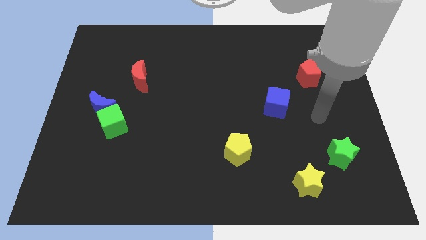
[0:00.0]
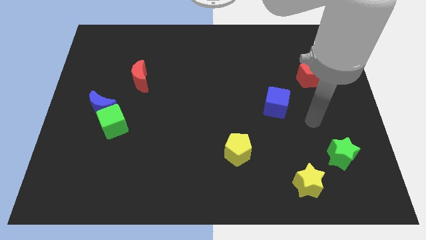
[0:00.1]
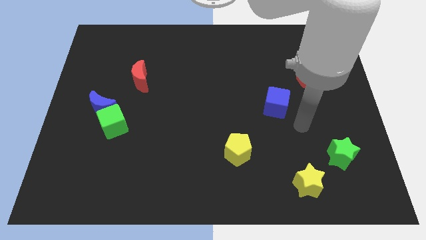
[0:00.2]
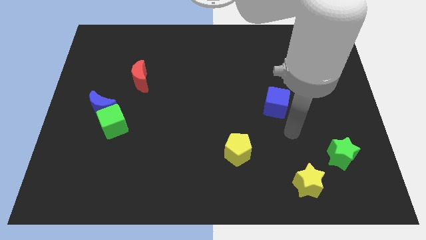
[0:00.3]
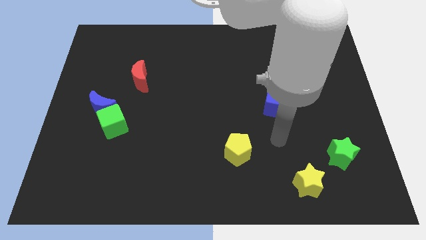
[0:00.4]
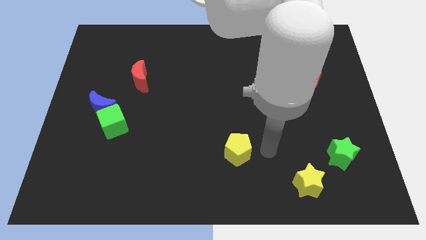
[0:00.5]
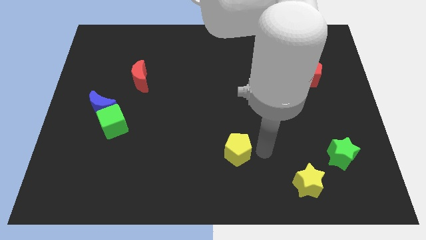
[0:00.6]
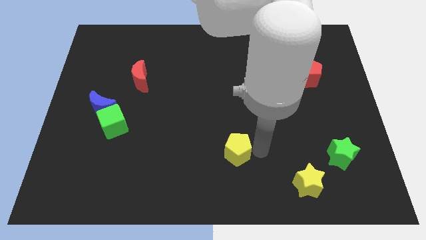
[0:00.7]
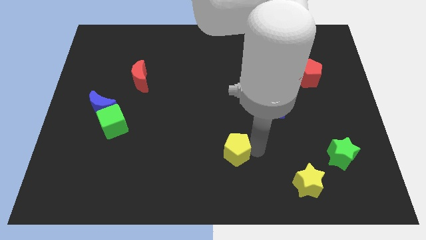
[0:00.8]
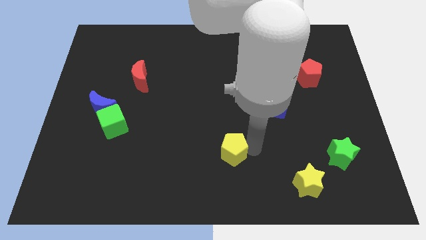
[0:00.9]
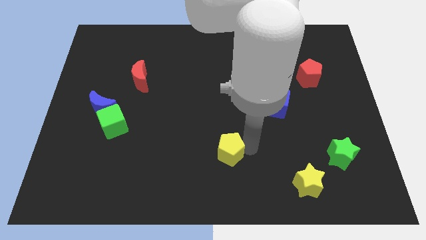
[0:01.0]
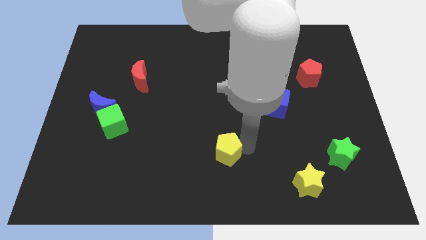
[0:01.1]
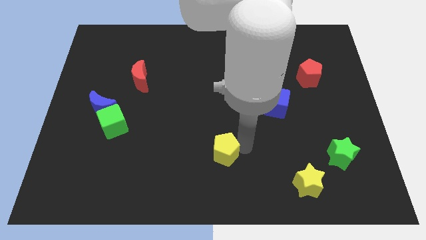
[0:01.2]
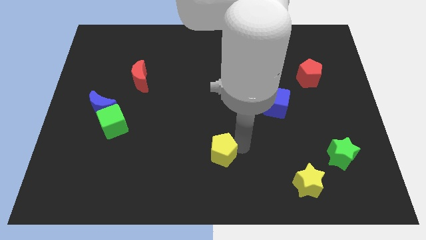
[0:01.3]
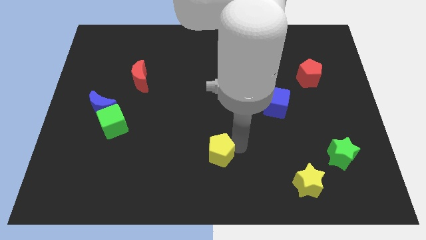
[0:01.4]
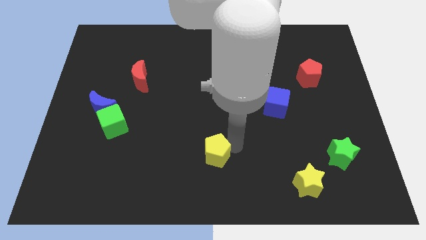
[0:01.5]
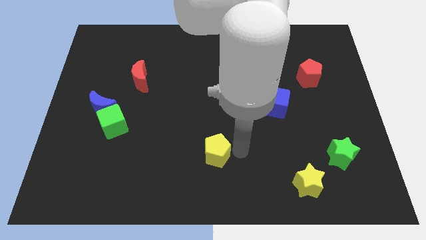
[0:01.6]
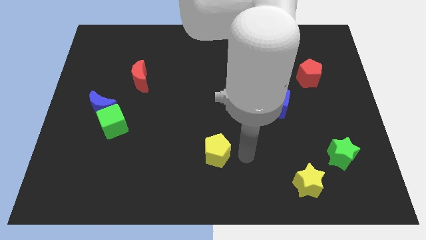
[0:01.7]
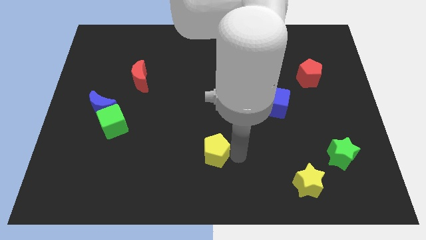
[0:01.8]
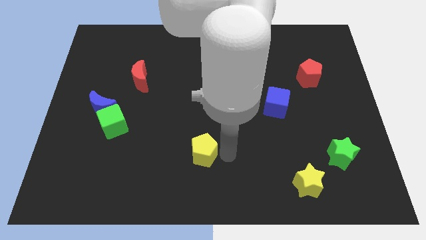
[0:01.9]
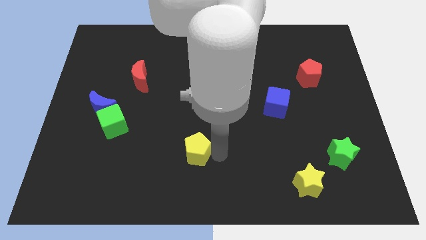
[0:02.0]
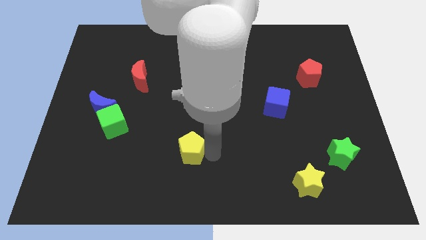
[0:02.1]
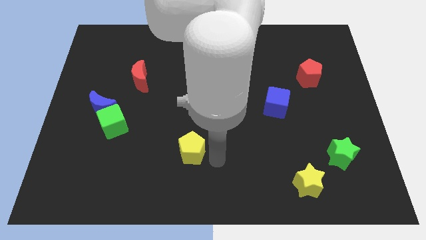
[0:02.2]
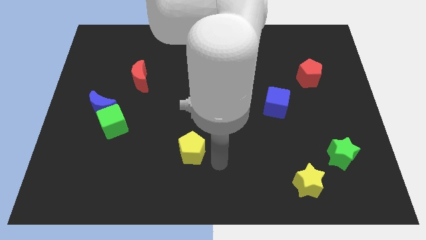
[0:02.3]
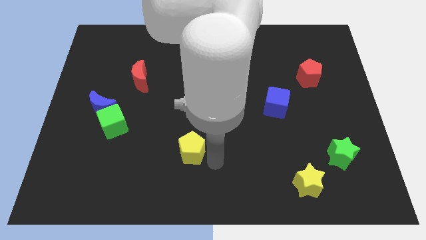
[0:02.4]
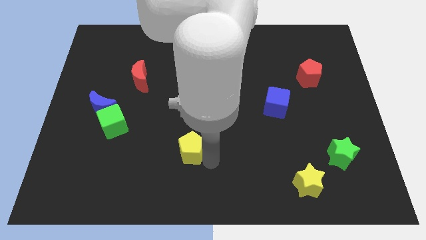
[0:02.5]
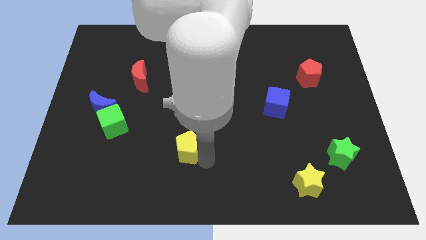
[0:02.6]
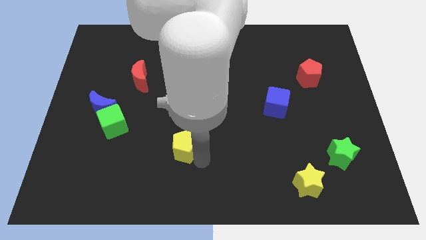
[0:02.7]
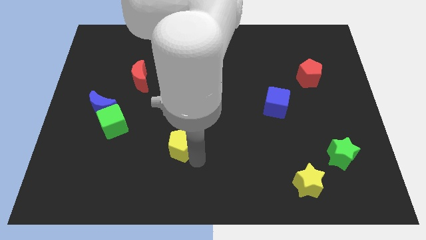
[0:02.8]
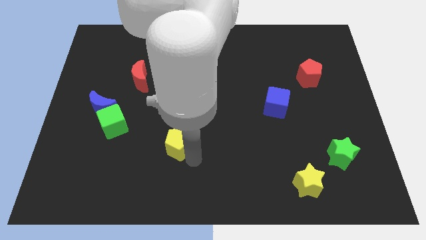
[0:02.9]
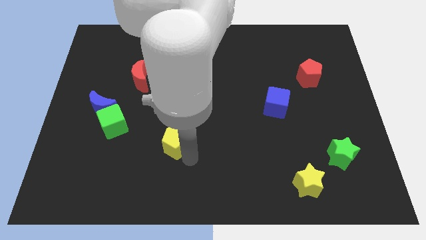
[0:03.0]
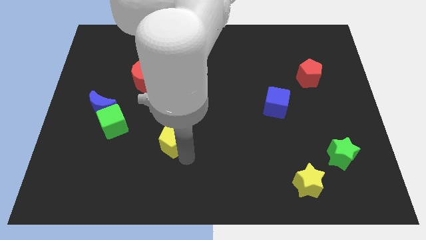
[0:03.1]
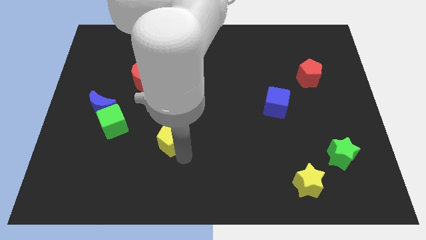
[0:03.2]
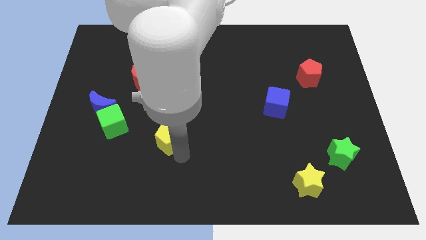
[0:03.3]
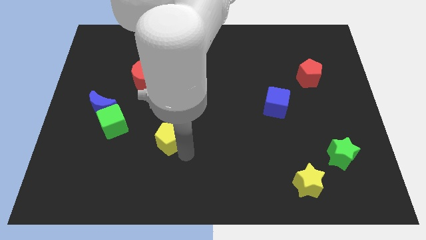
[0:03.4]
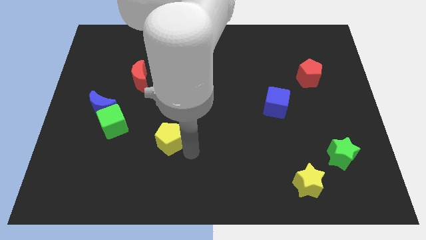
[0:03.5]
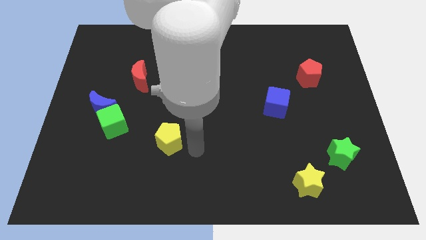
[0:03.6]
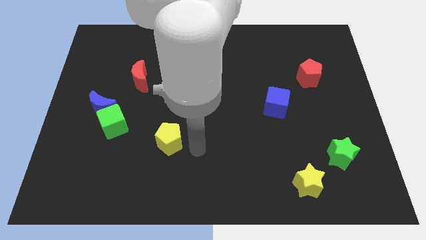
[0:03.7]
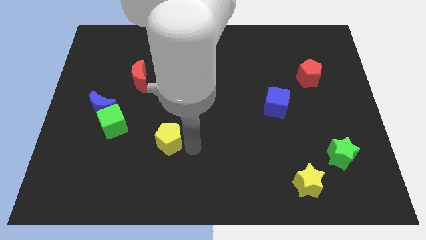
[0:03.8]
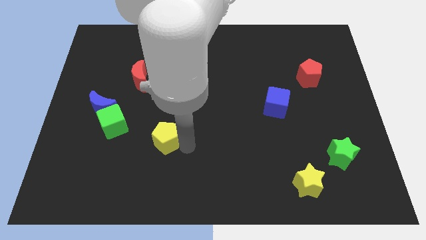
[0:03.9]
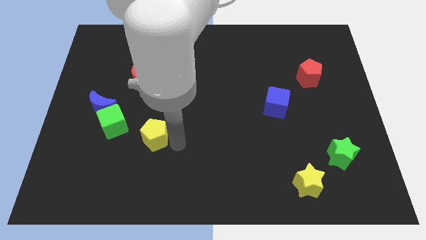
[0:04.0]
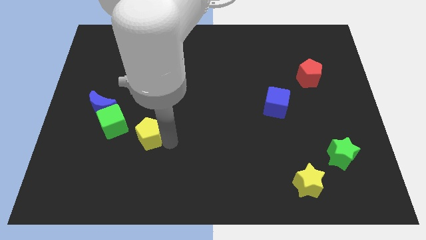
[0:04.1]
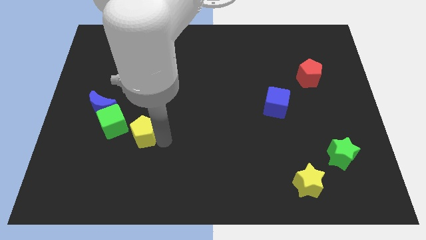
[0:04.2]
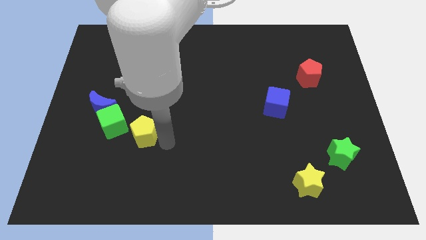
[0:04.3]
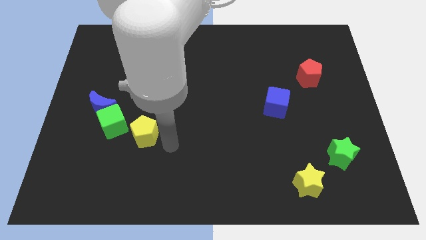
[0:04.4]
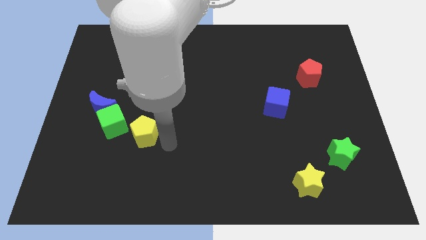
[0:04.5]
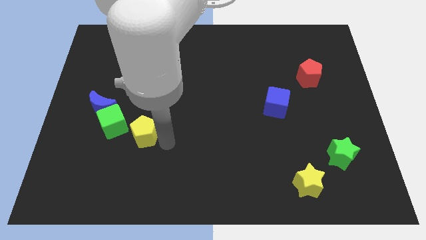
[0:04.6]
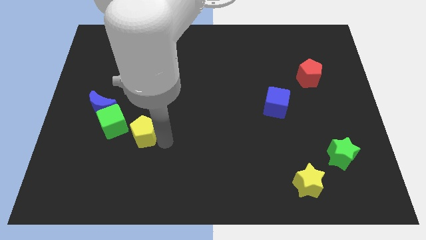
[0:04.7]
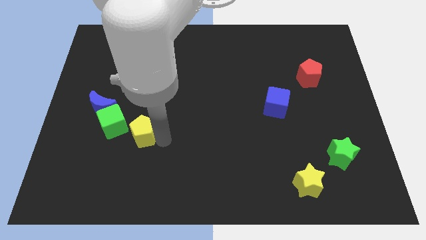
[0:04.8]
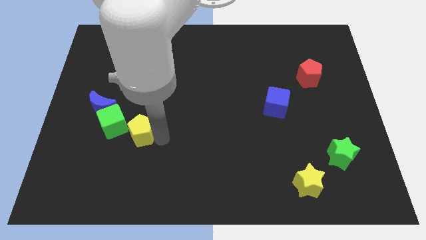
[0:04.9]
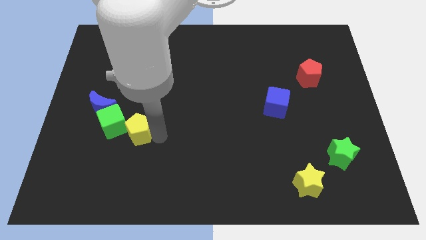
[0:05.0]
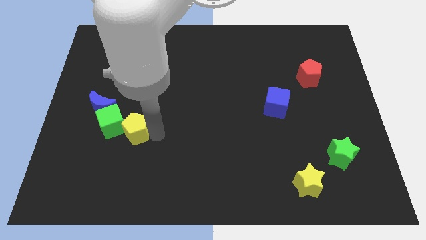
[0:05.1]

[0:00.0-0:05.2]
slide the yellow pentagon next to the green cube

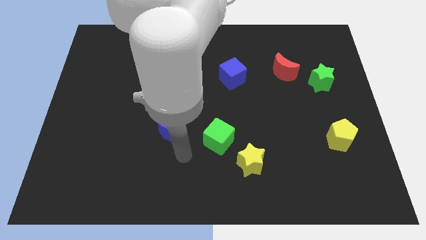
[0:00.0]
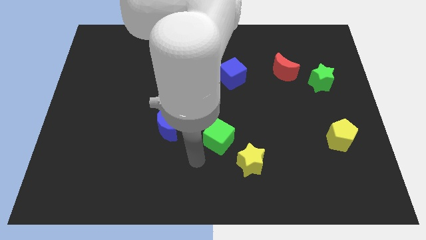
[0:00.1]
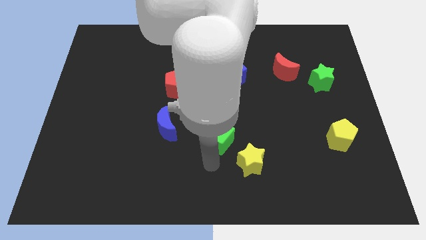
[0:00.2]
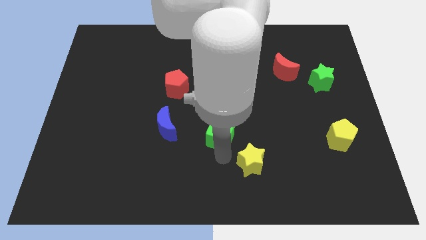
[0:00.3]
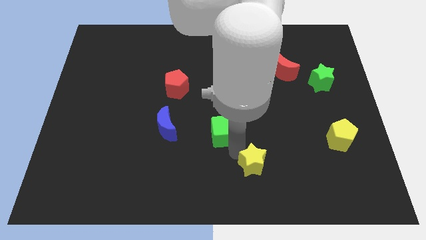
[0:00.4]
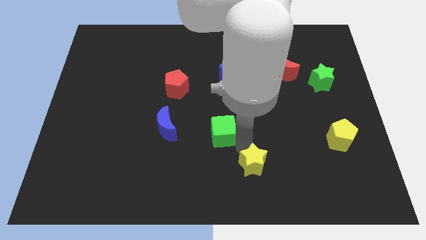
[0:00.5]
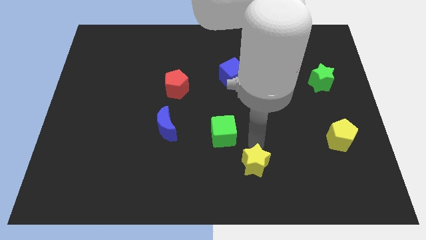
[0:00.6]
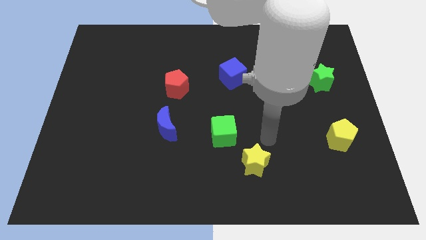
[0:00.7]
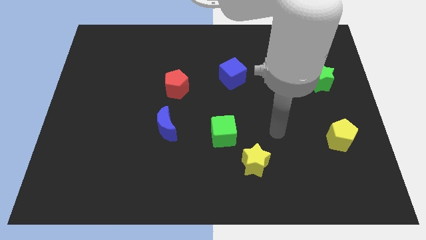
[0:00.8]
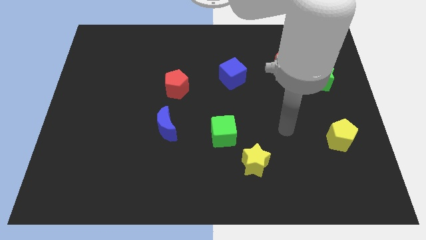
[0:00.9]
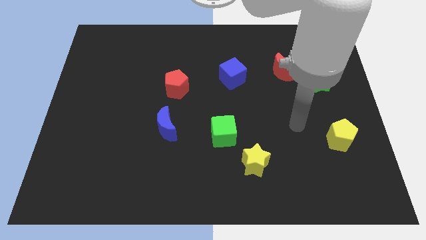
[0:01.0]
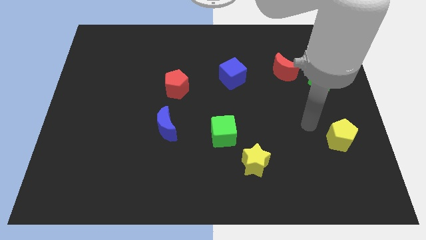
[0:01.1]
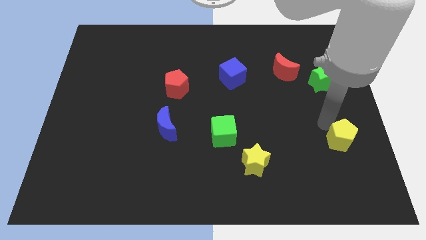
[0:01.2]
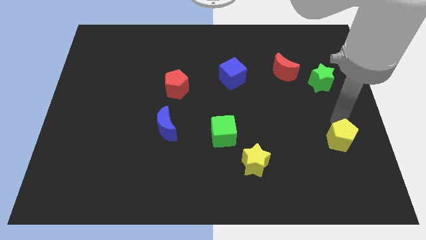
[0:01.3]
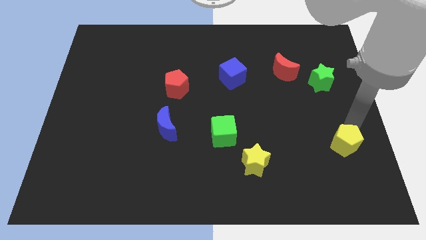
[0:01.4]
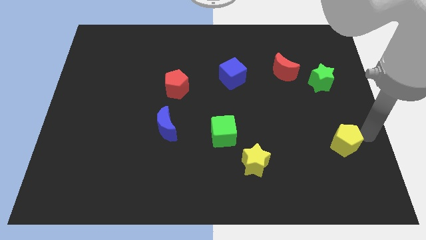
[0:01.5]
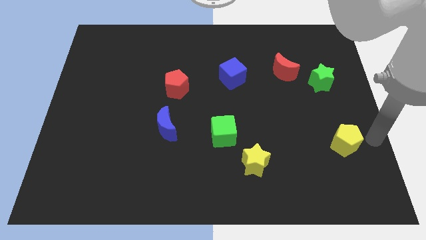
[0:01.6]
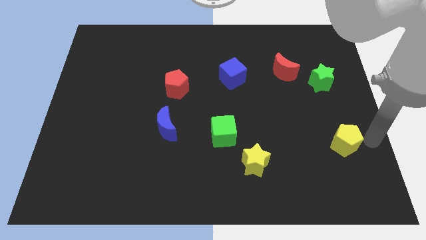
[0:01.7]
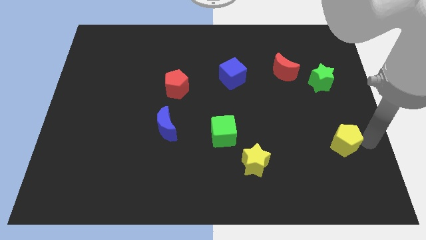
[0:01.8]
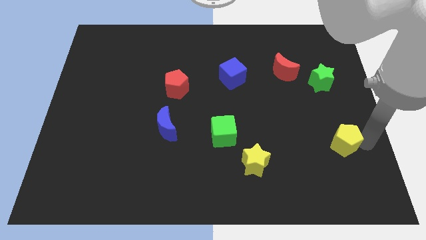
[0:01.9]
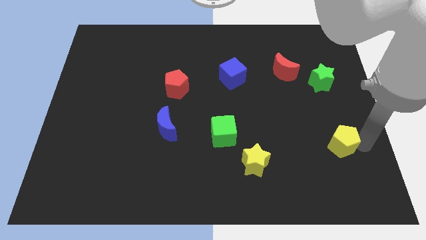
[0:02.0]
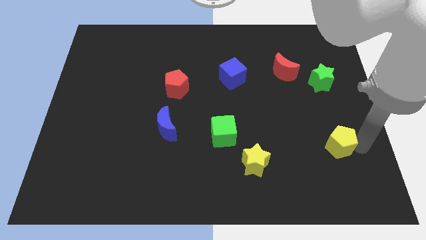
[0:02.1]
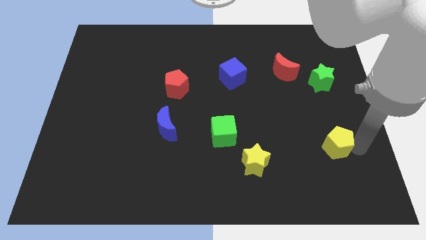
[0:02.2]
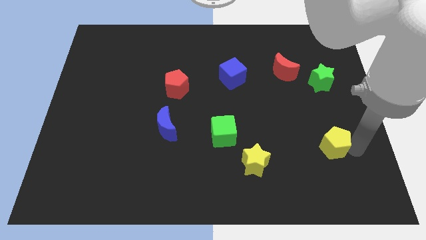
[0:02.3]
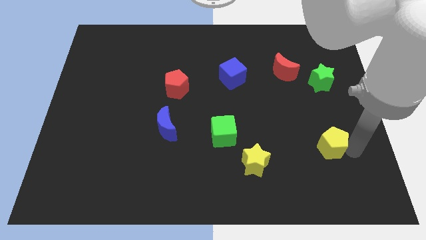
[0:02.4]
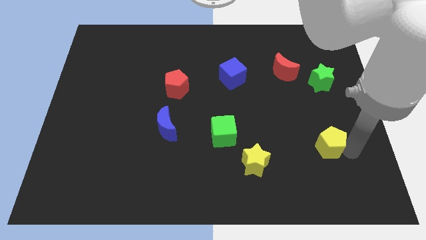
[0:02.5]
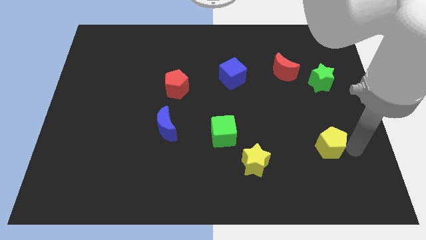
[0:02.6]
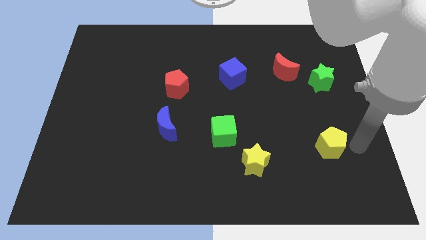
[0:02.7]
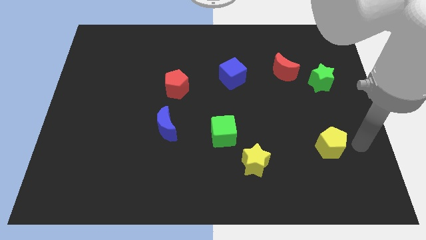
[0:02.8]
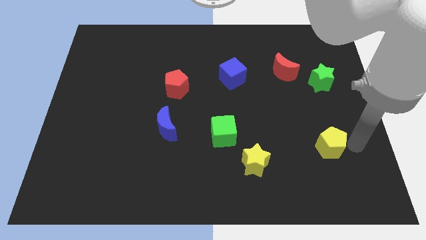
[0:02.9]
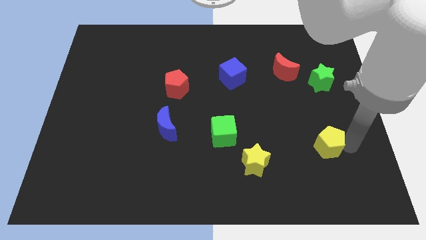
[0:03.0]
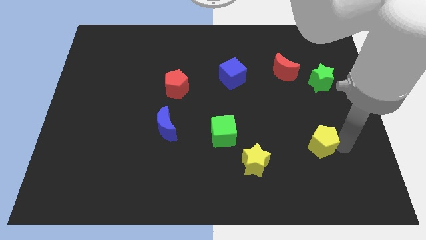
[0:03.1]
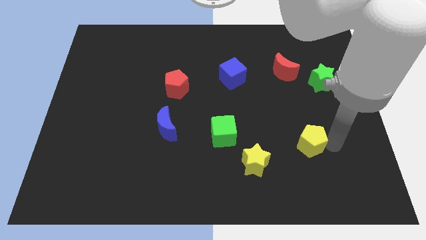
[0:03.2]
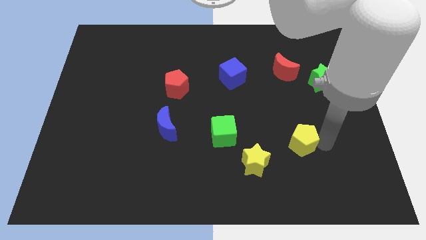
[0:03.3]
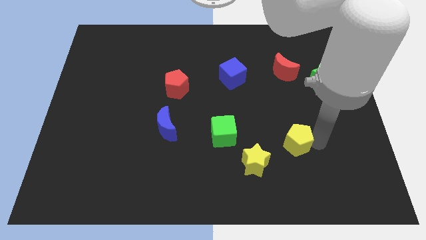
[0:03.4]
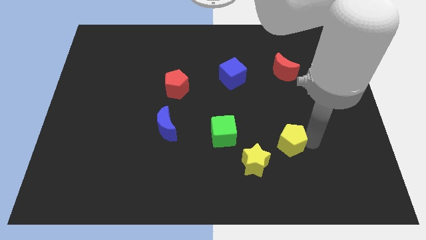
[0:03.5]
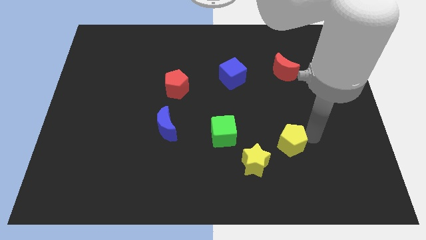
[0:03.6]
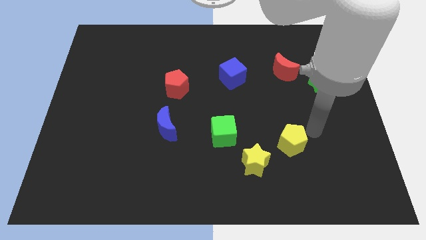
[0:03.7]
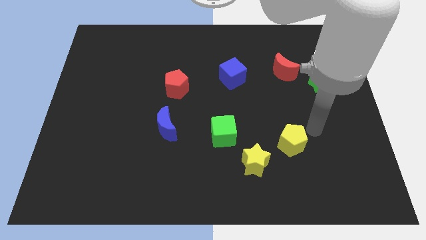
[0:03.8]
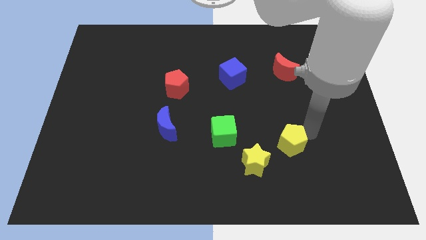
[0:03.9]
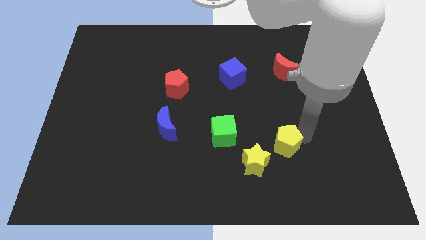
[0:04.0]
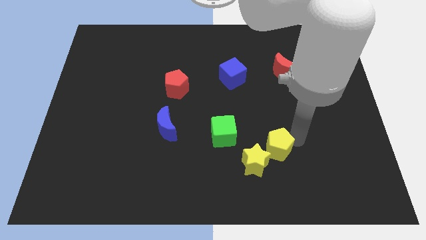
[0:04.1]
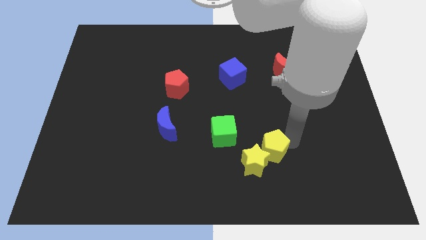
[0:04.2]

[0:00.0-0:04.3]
slide the yellow pentagon next to the yellow star
